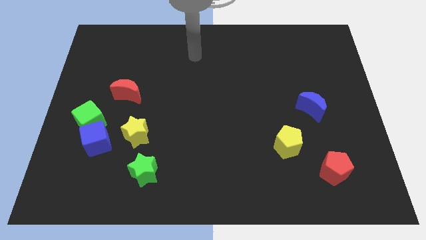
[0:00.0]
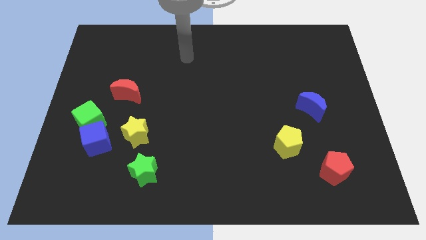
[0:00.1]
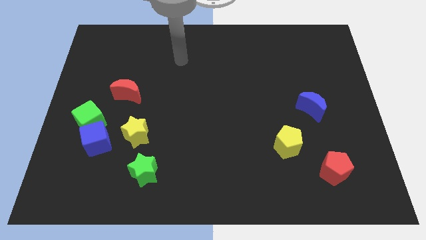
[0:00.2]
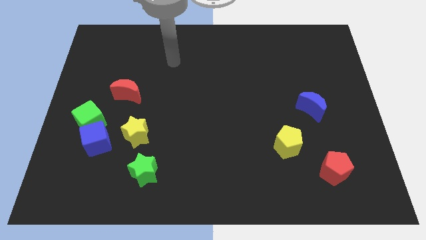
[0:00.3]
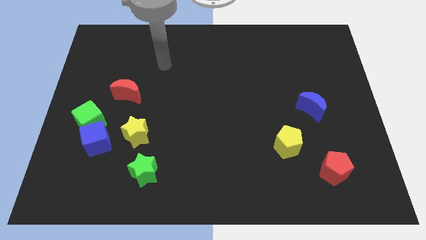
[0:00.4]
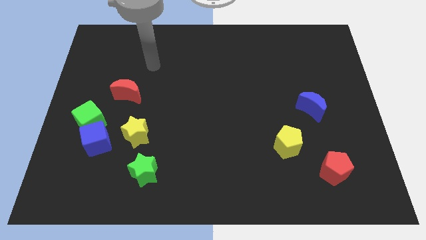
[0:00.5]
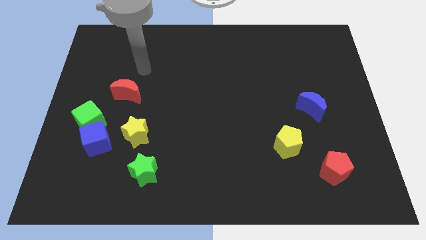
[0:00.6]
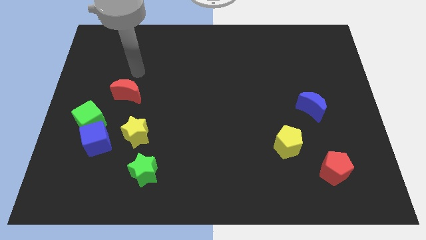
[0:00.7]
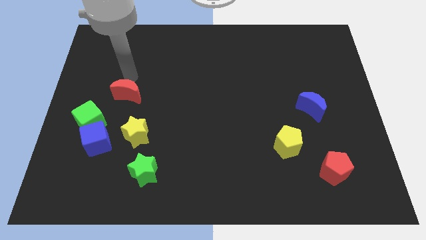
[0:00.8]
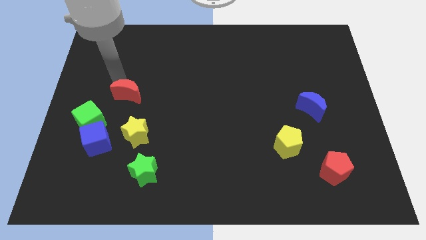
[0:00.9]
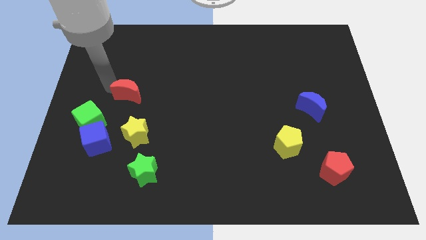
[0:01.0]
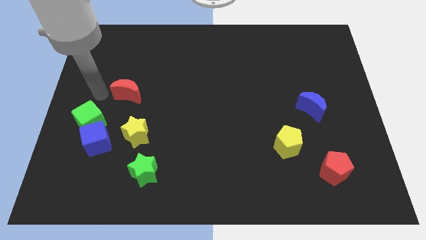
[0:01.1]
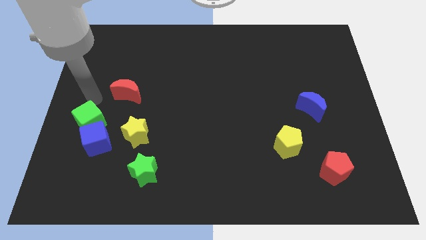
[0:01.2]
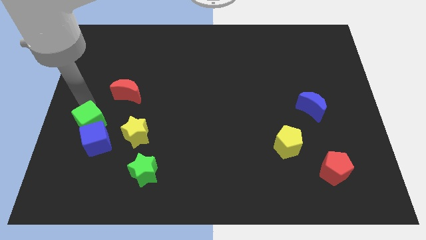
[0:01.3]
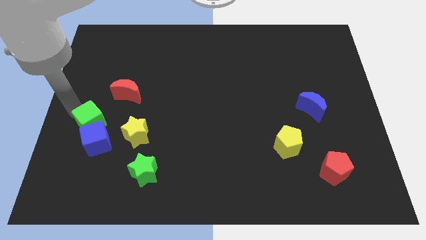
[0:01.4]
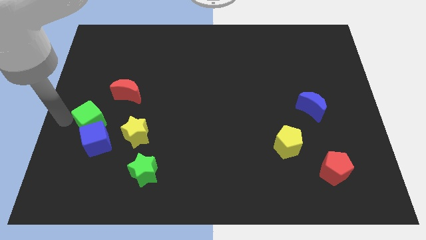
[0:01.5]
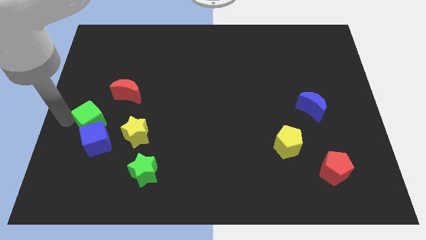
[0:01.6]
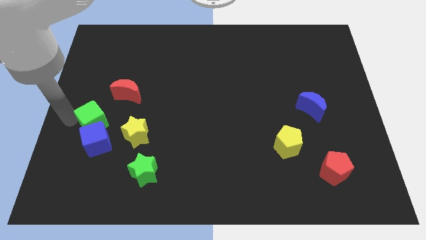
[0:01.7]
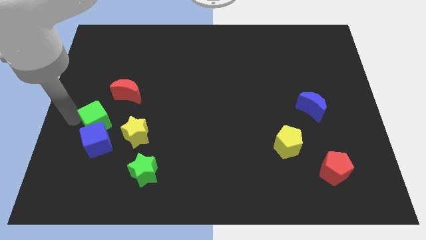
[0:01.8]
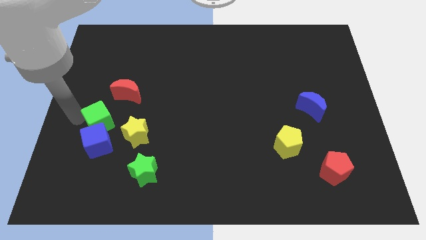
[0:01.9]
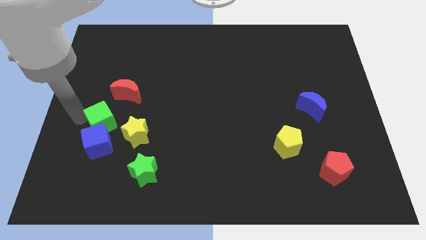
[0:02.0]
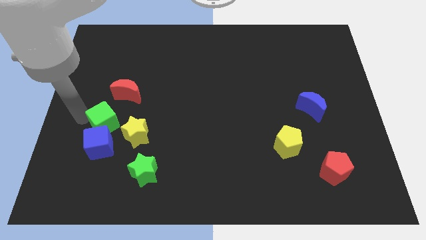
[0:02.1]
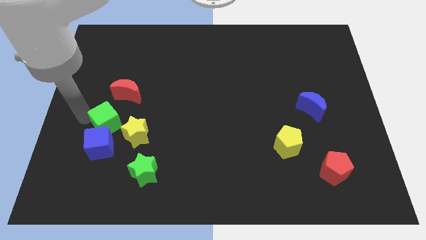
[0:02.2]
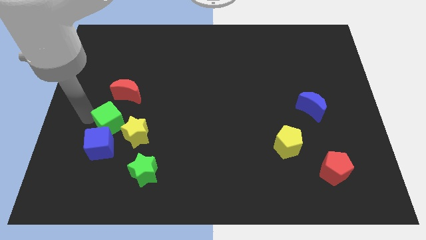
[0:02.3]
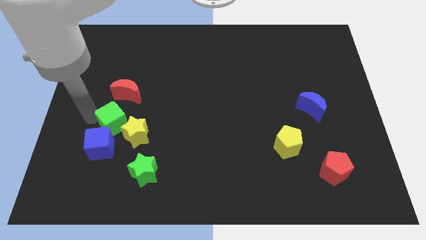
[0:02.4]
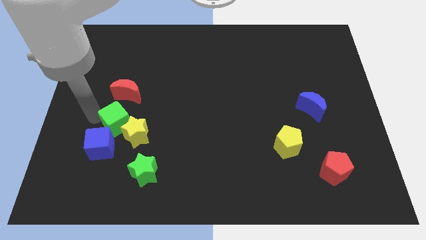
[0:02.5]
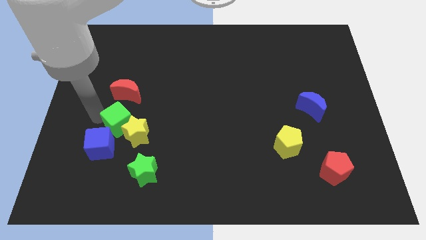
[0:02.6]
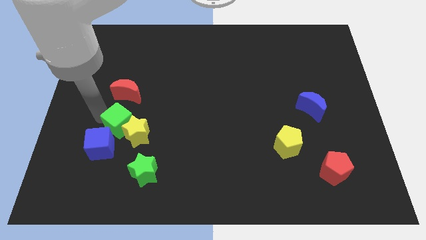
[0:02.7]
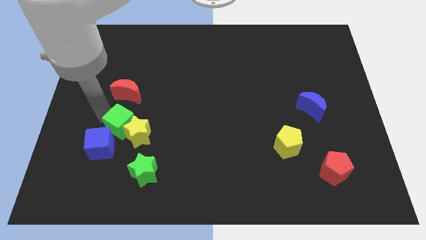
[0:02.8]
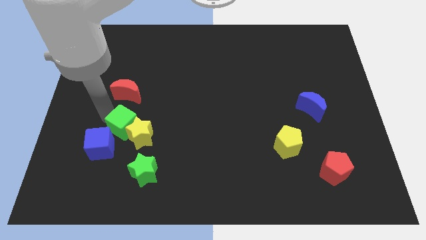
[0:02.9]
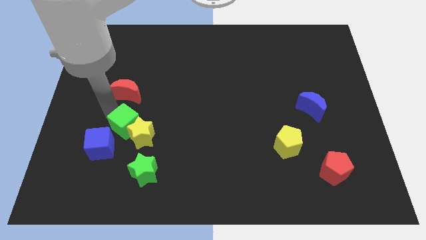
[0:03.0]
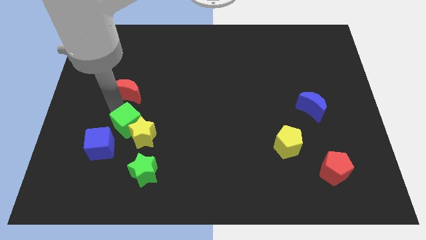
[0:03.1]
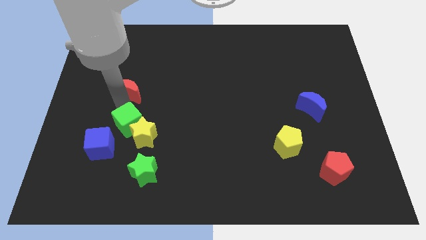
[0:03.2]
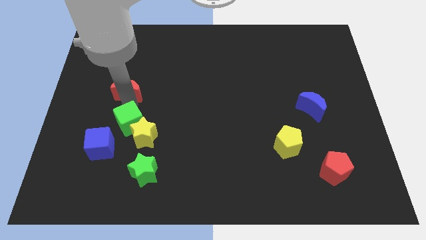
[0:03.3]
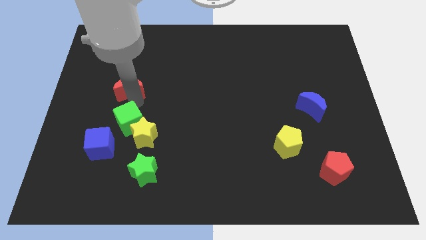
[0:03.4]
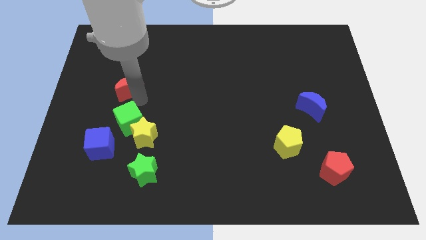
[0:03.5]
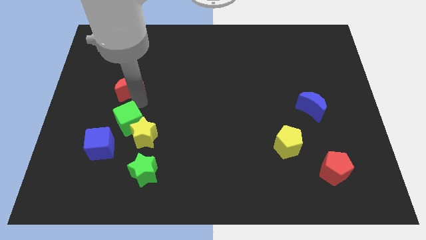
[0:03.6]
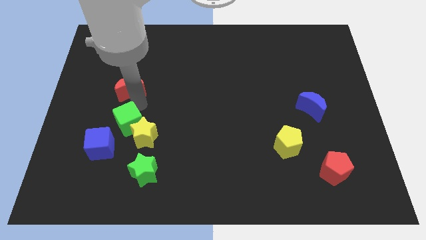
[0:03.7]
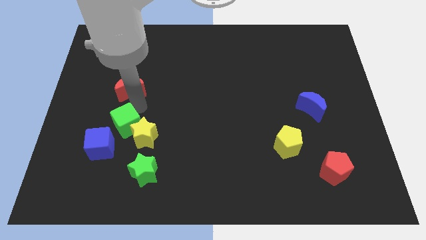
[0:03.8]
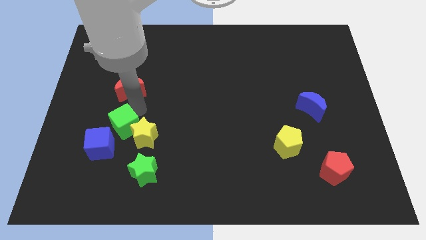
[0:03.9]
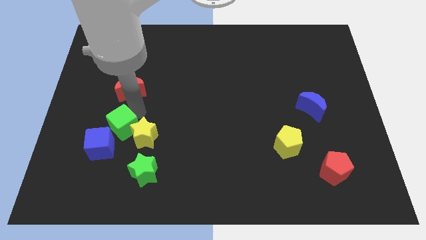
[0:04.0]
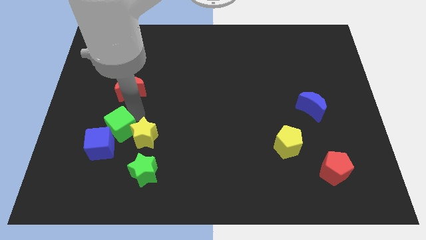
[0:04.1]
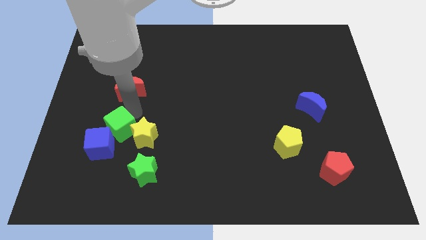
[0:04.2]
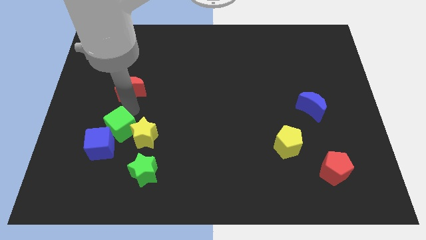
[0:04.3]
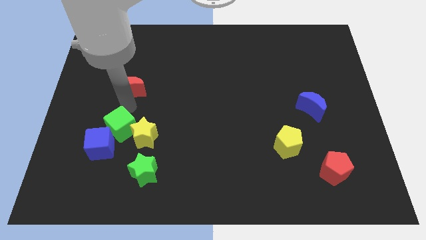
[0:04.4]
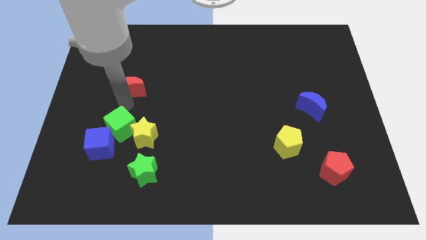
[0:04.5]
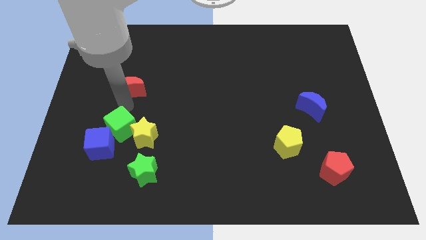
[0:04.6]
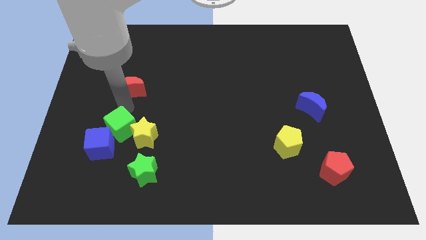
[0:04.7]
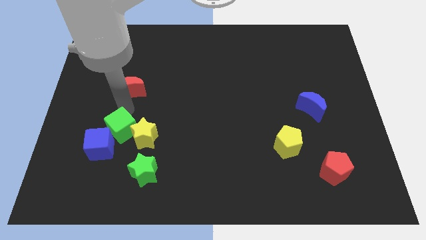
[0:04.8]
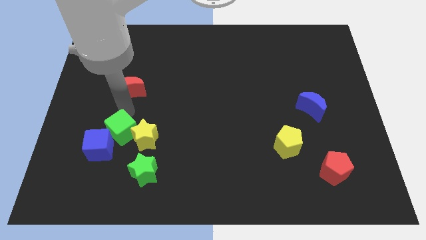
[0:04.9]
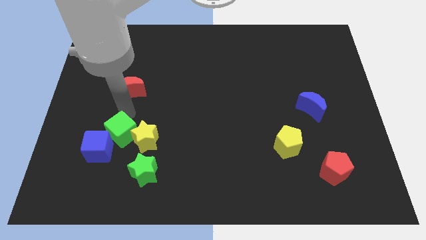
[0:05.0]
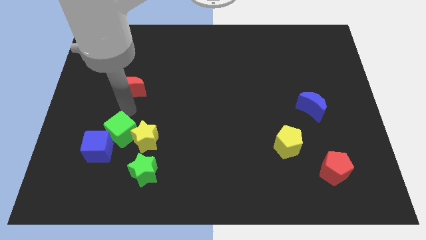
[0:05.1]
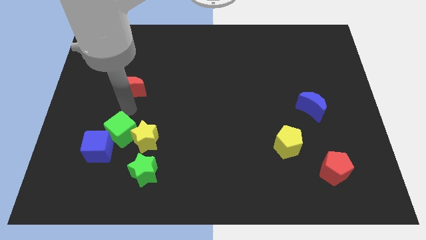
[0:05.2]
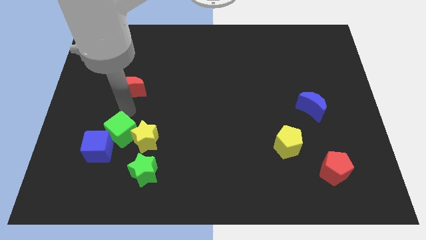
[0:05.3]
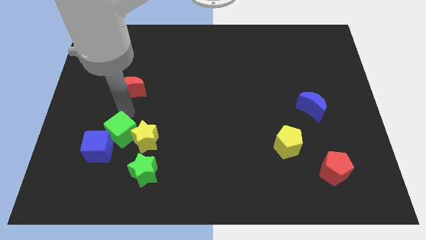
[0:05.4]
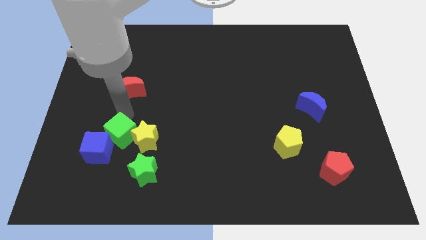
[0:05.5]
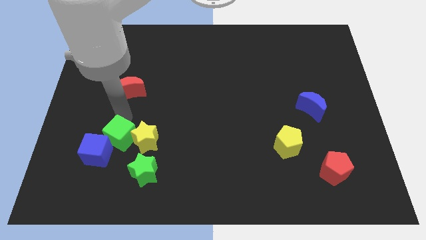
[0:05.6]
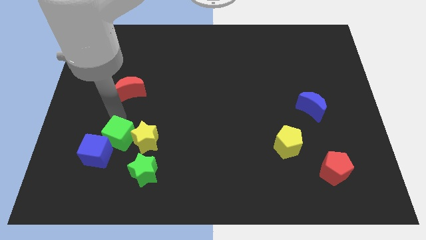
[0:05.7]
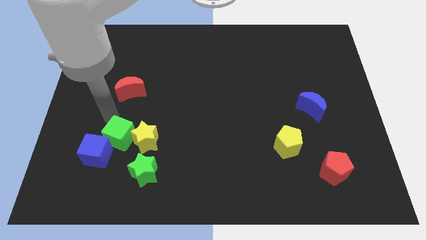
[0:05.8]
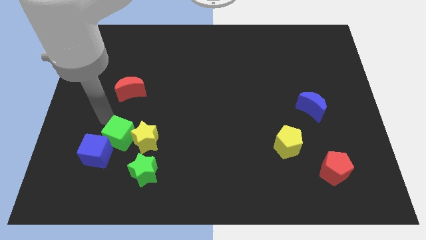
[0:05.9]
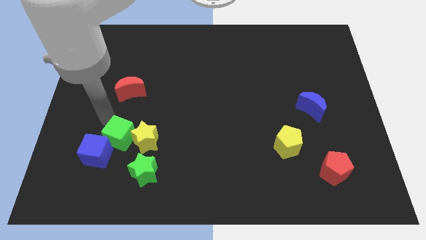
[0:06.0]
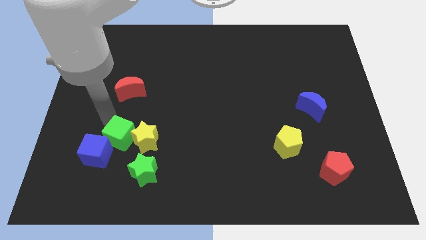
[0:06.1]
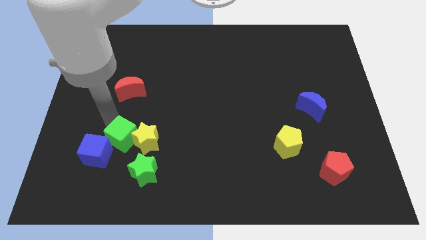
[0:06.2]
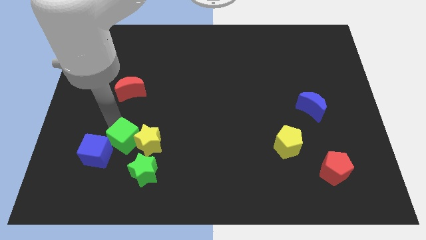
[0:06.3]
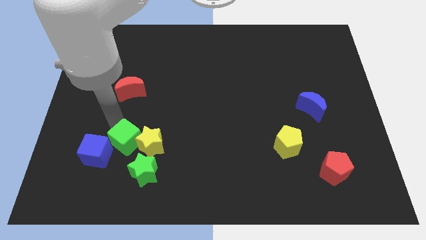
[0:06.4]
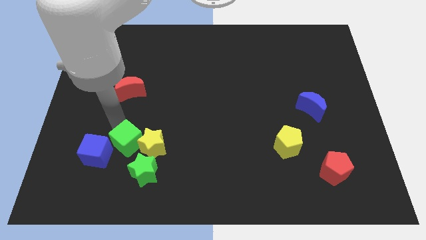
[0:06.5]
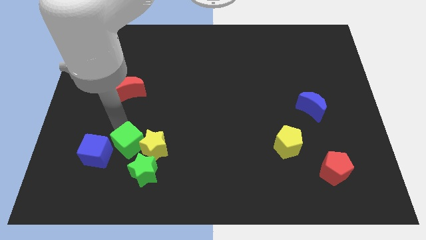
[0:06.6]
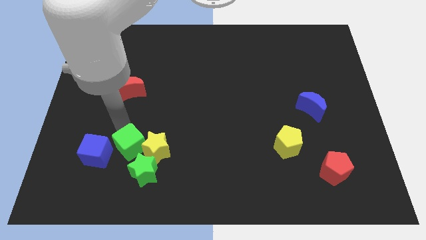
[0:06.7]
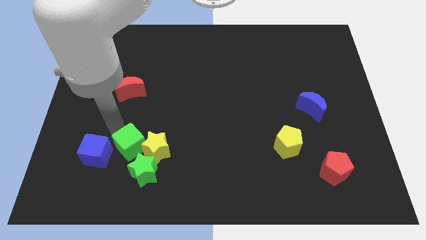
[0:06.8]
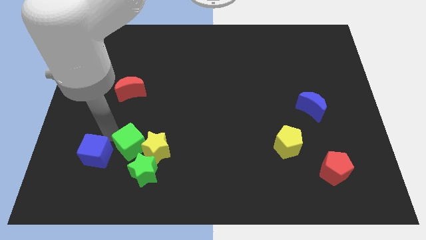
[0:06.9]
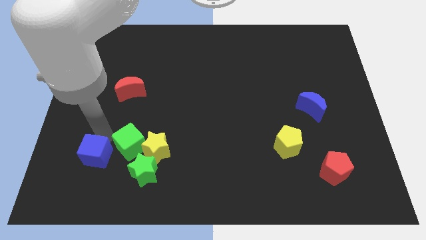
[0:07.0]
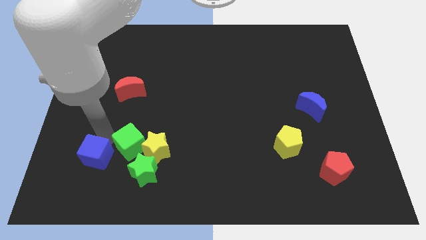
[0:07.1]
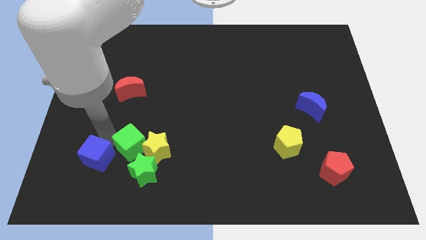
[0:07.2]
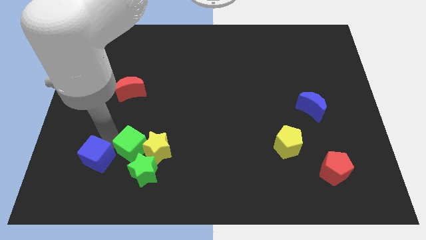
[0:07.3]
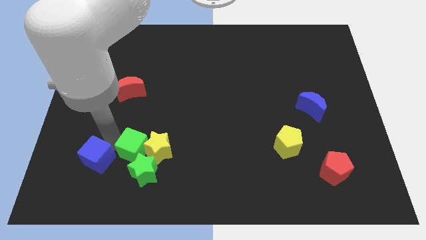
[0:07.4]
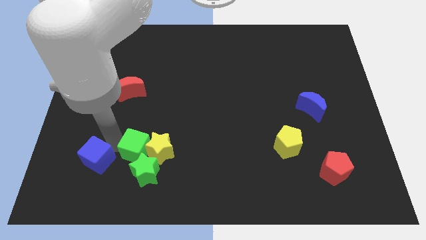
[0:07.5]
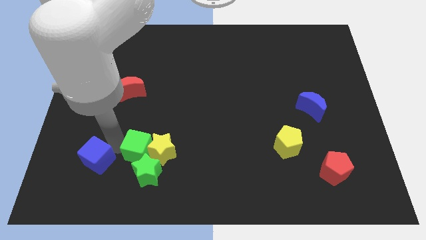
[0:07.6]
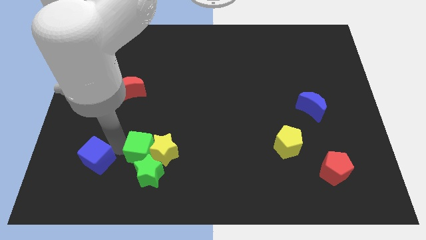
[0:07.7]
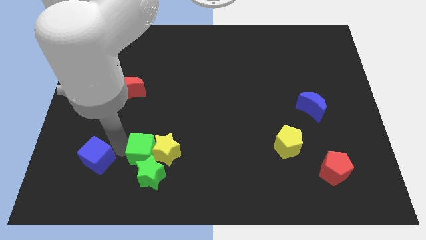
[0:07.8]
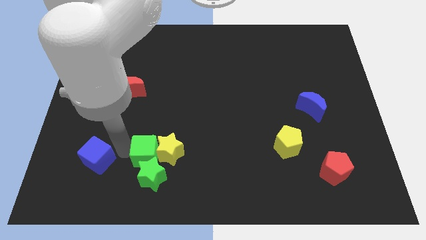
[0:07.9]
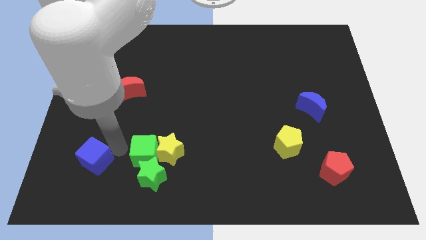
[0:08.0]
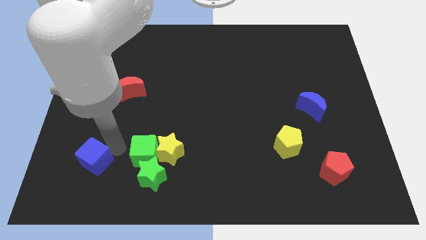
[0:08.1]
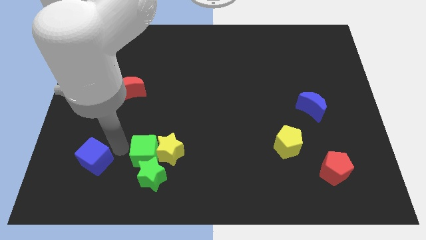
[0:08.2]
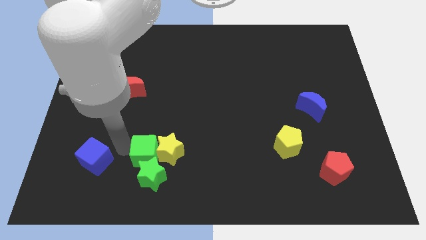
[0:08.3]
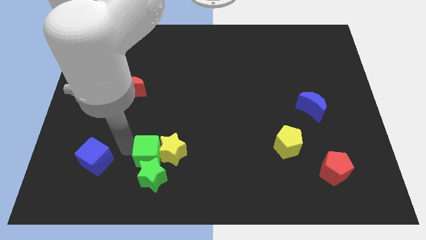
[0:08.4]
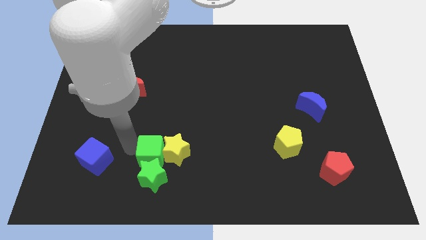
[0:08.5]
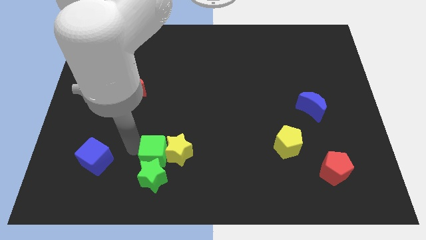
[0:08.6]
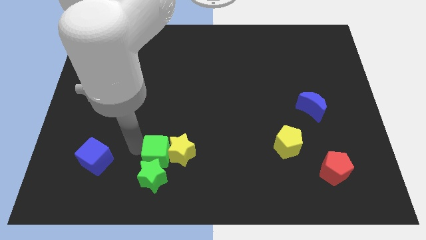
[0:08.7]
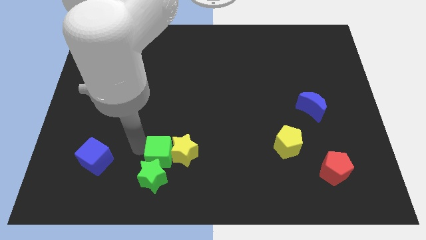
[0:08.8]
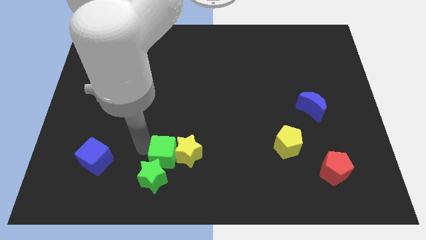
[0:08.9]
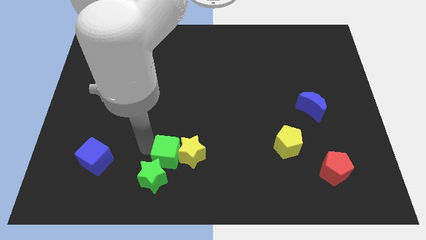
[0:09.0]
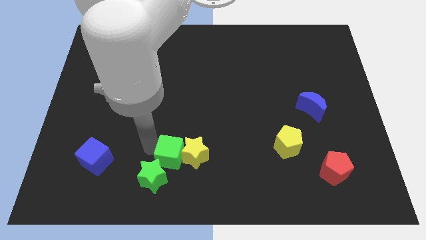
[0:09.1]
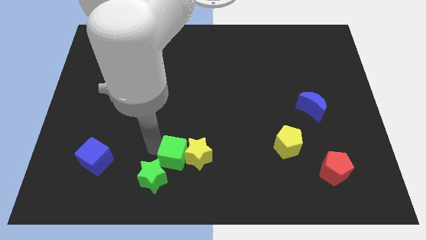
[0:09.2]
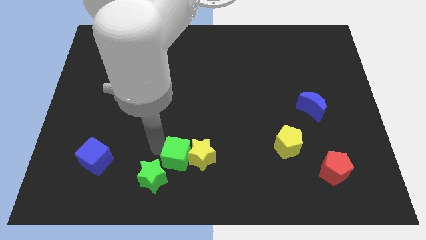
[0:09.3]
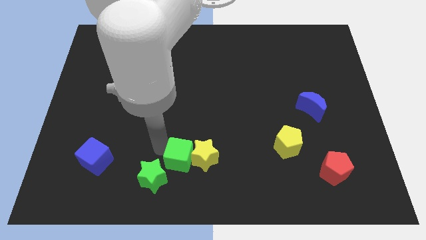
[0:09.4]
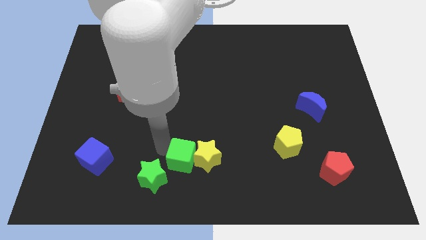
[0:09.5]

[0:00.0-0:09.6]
move the green cube to the bottom
